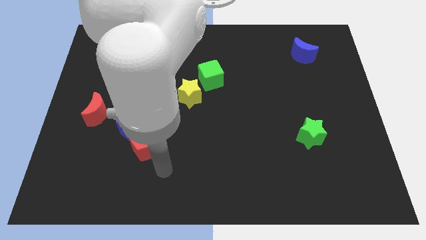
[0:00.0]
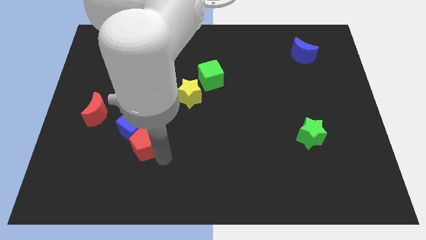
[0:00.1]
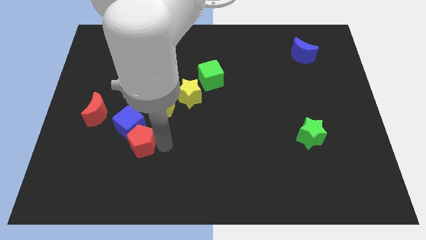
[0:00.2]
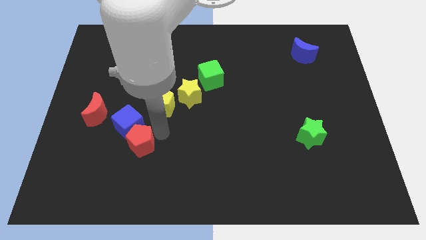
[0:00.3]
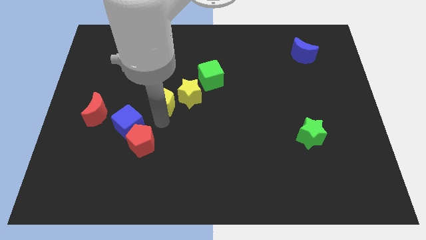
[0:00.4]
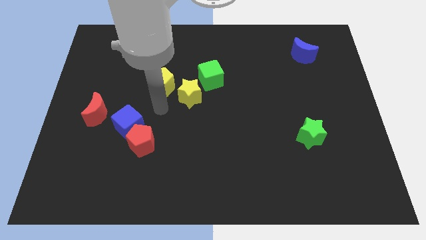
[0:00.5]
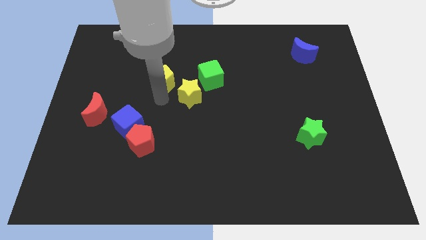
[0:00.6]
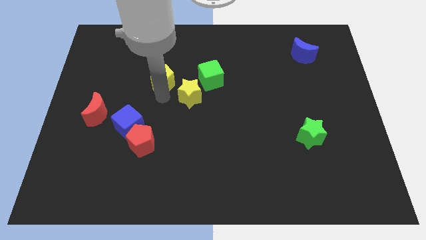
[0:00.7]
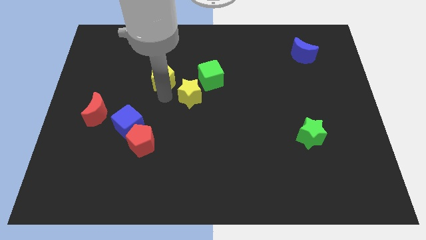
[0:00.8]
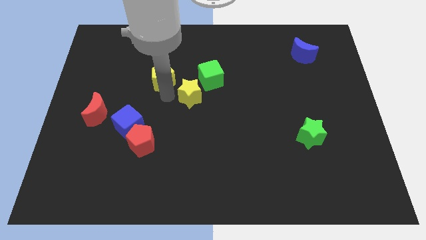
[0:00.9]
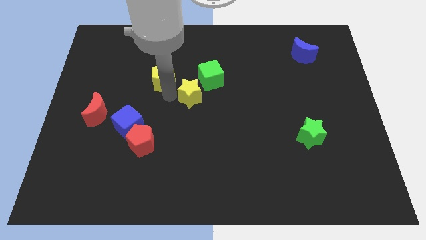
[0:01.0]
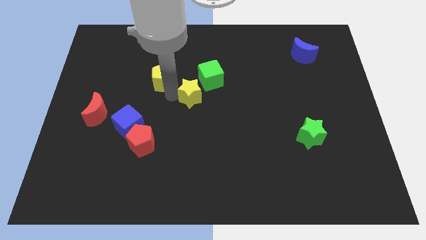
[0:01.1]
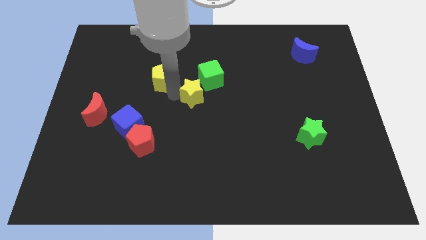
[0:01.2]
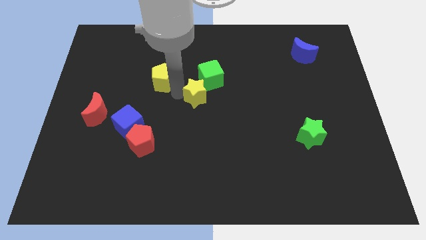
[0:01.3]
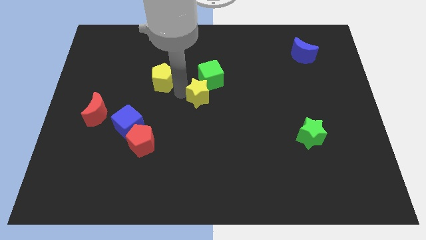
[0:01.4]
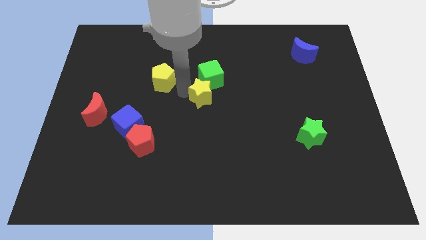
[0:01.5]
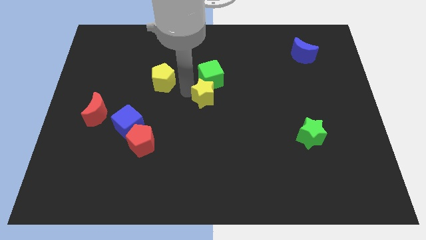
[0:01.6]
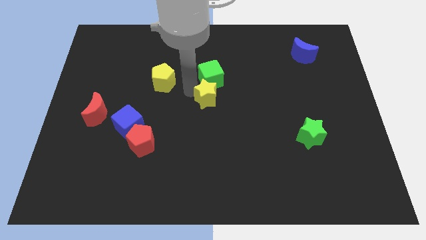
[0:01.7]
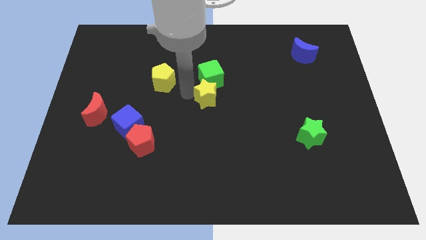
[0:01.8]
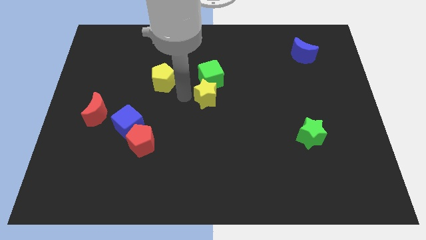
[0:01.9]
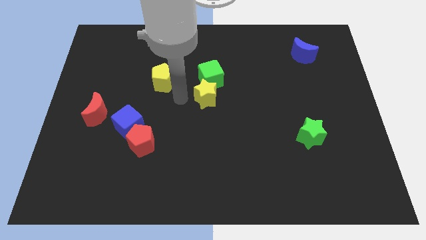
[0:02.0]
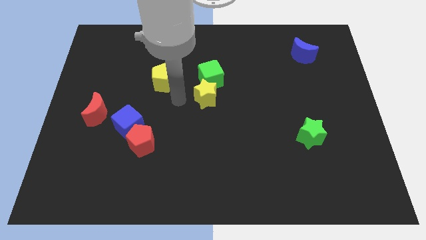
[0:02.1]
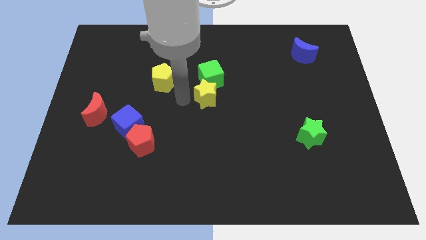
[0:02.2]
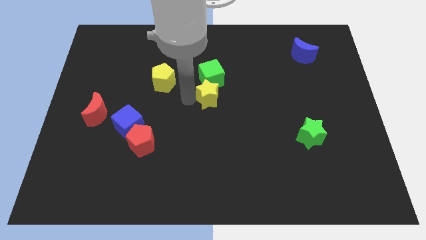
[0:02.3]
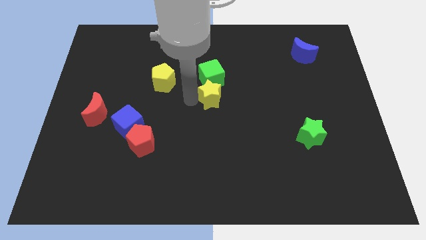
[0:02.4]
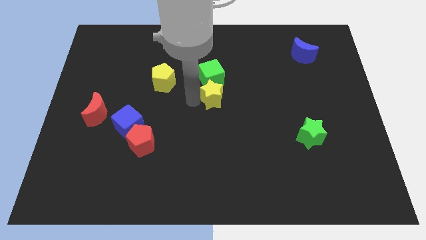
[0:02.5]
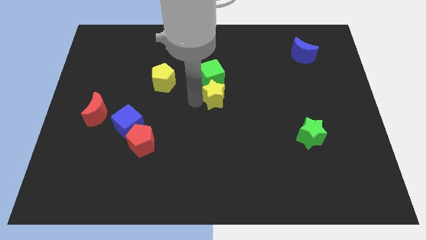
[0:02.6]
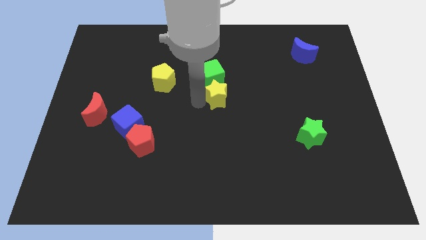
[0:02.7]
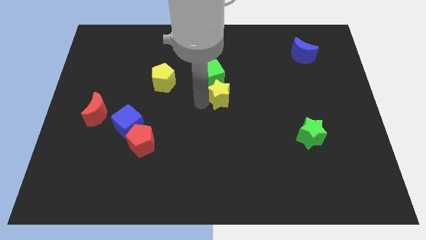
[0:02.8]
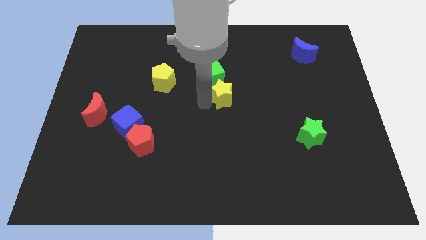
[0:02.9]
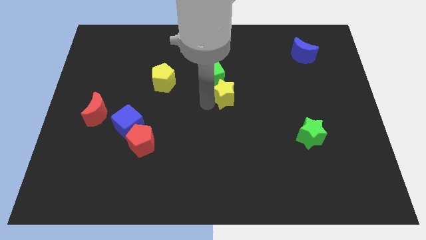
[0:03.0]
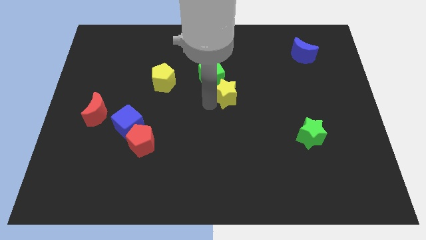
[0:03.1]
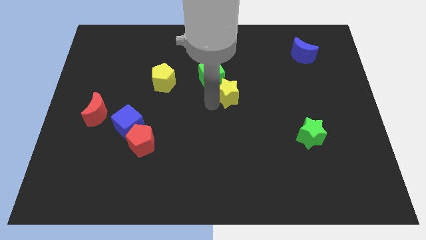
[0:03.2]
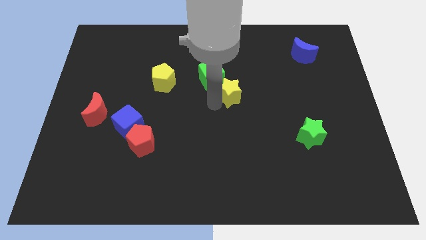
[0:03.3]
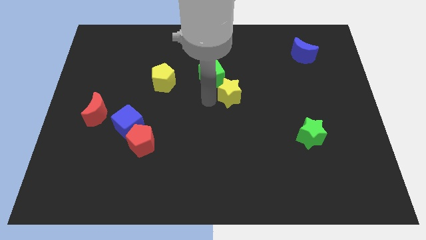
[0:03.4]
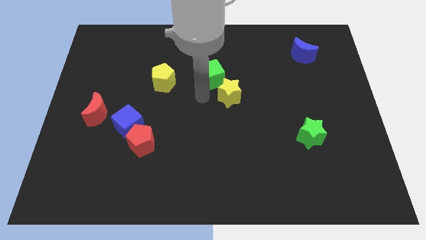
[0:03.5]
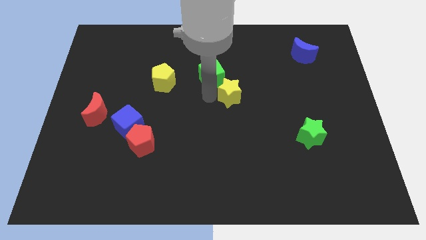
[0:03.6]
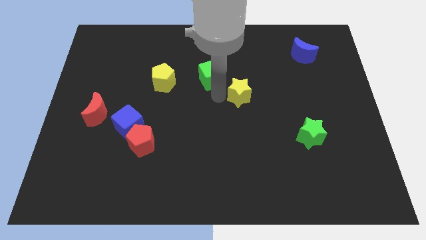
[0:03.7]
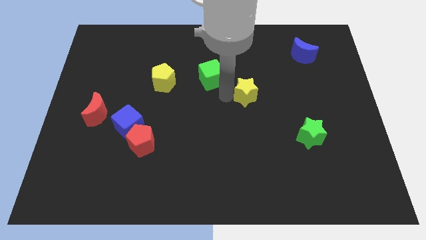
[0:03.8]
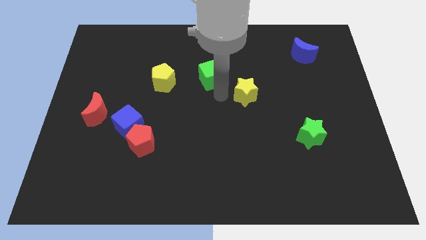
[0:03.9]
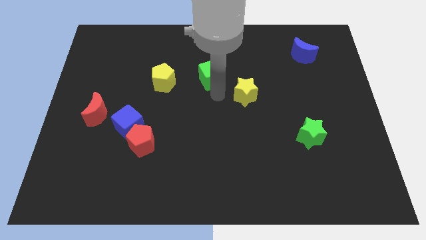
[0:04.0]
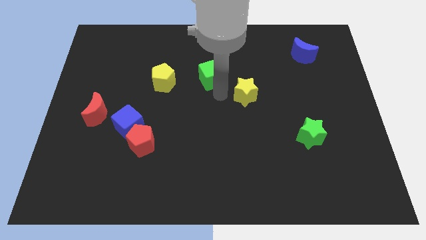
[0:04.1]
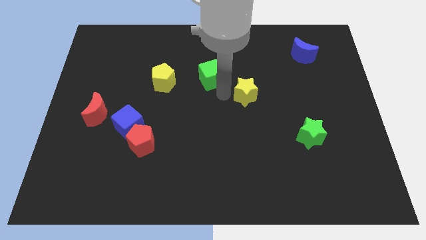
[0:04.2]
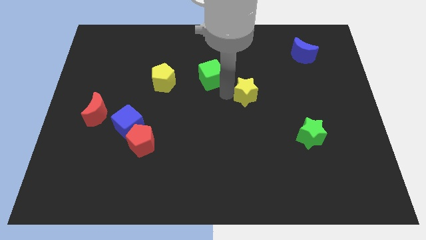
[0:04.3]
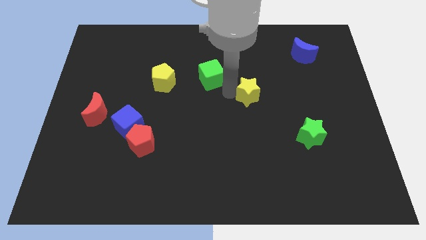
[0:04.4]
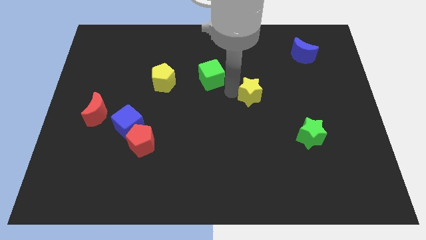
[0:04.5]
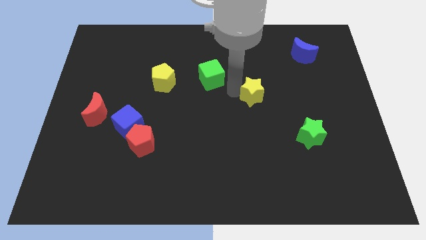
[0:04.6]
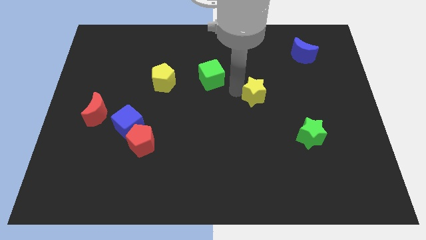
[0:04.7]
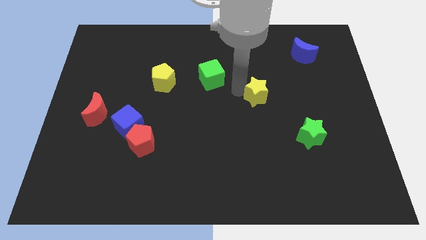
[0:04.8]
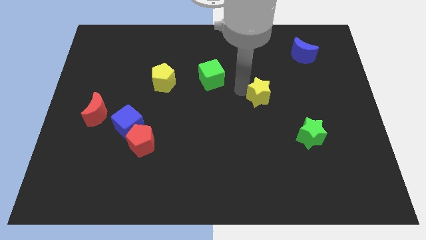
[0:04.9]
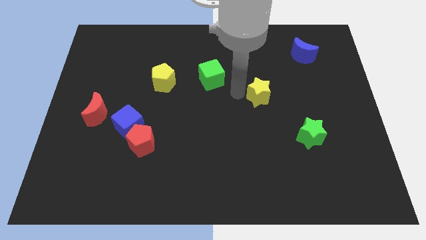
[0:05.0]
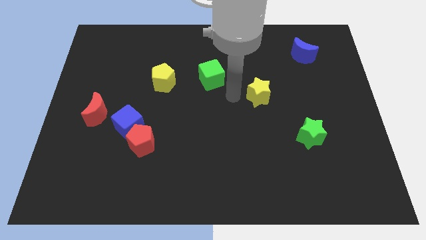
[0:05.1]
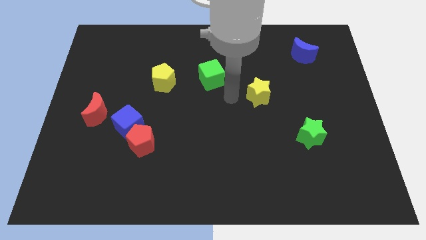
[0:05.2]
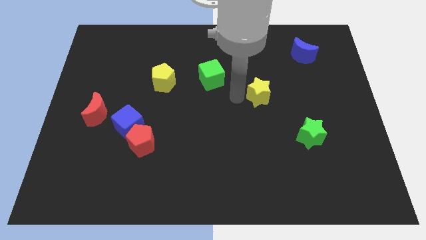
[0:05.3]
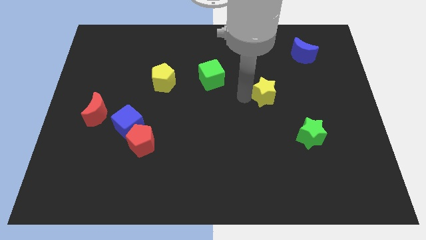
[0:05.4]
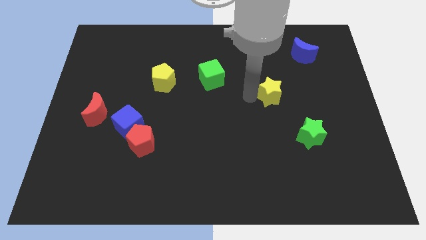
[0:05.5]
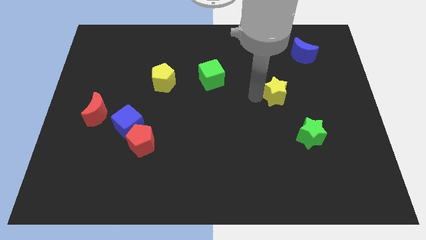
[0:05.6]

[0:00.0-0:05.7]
move the yellow star right

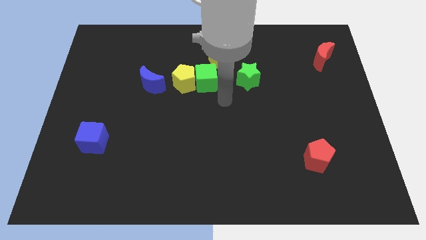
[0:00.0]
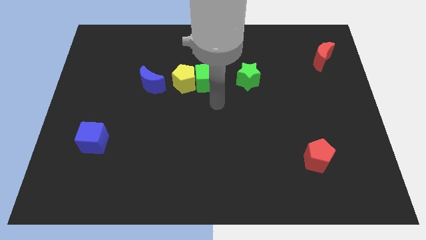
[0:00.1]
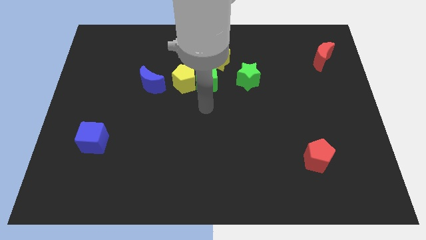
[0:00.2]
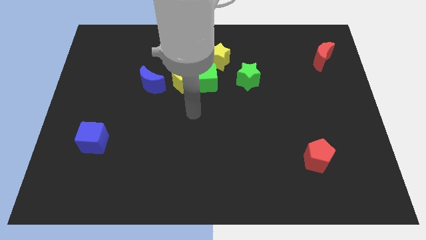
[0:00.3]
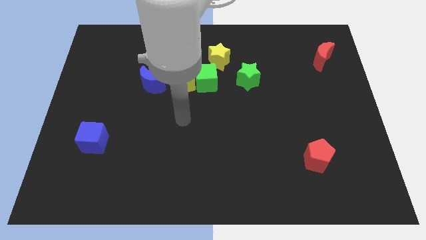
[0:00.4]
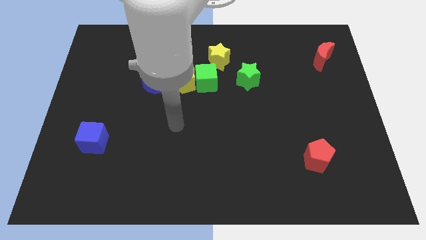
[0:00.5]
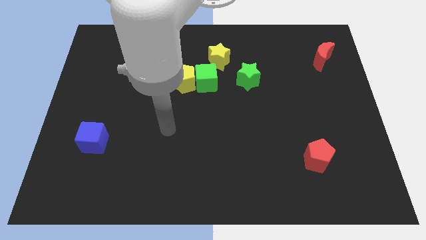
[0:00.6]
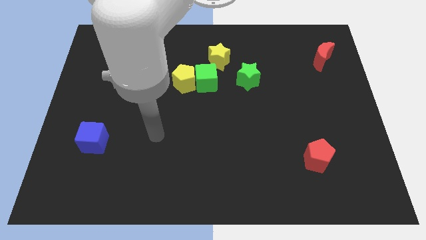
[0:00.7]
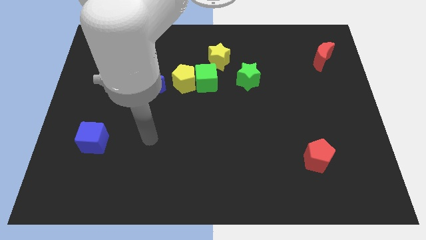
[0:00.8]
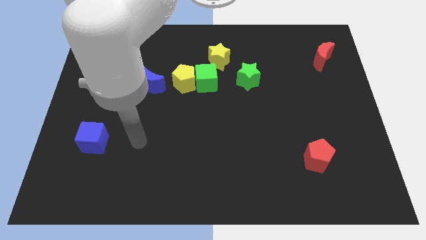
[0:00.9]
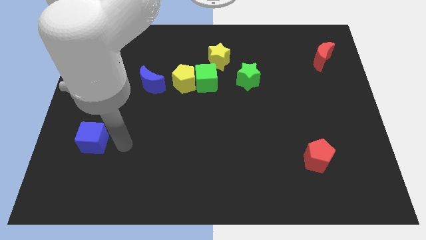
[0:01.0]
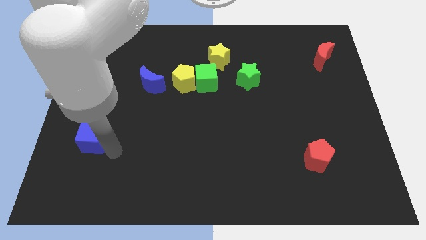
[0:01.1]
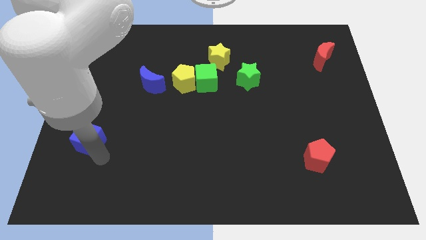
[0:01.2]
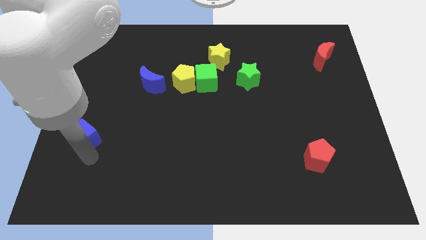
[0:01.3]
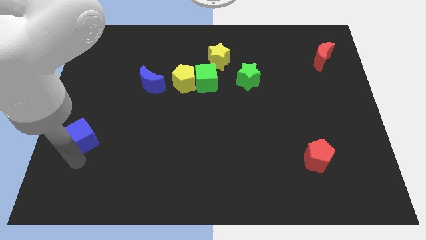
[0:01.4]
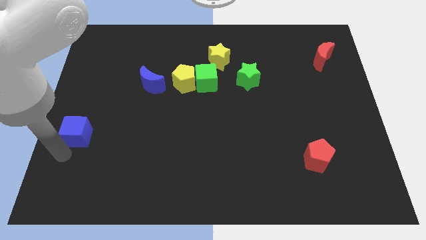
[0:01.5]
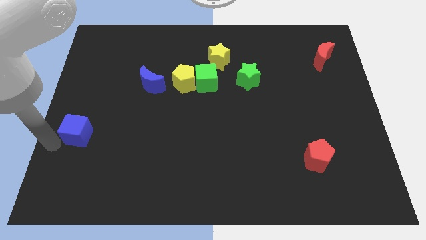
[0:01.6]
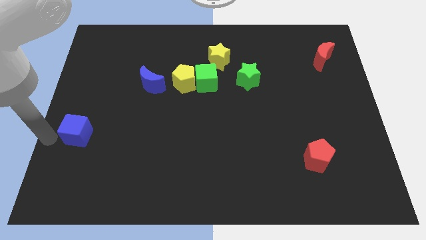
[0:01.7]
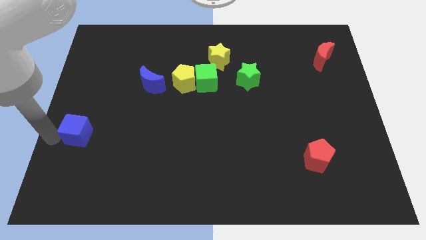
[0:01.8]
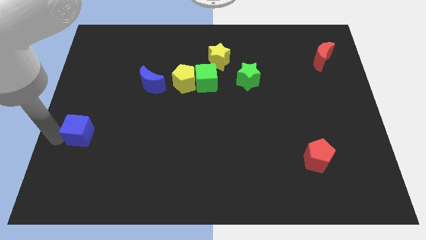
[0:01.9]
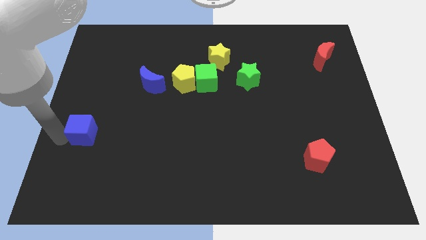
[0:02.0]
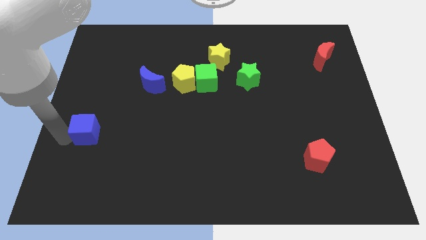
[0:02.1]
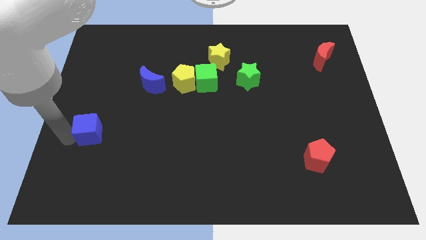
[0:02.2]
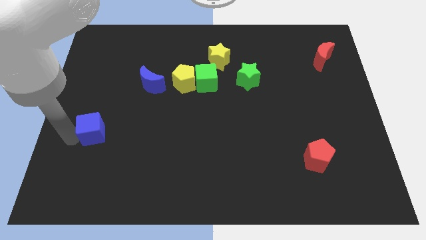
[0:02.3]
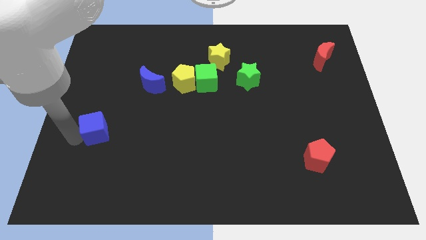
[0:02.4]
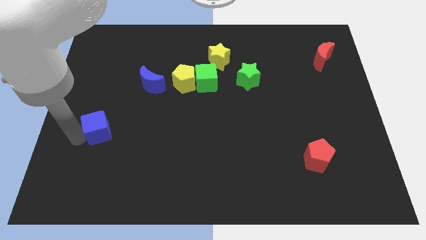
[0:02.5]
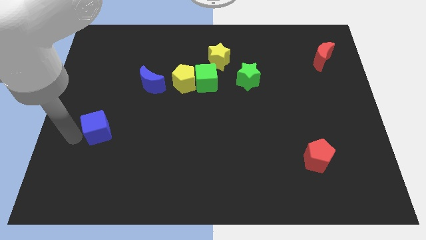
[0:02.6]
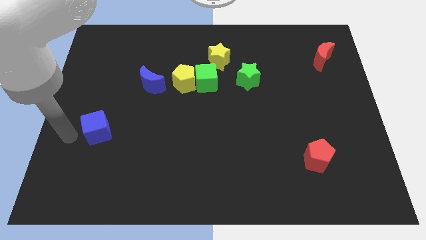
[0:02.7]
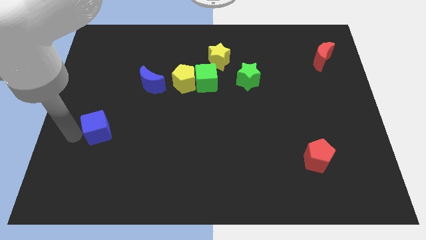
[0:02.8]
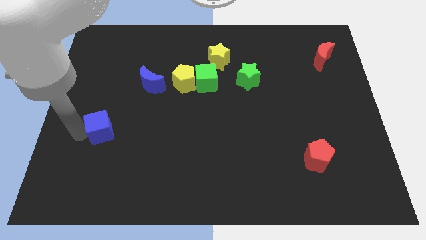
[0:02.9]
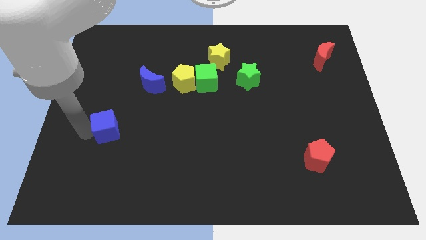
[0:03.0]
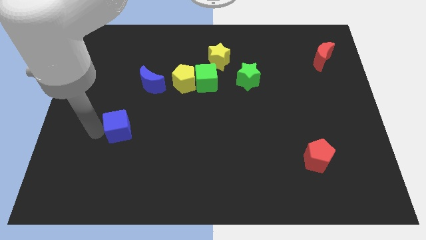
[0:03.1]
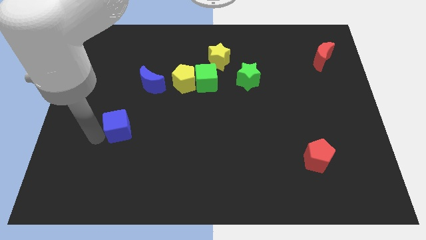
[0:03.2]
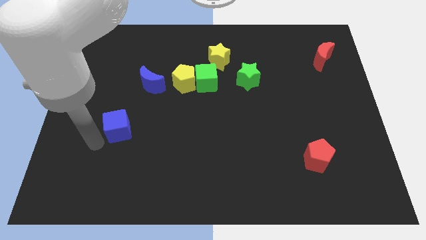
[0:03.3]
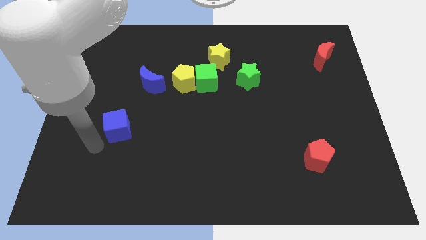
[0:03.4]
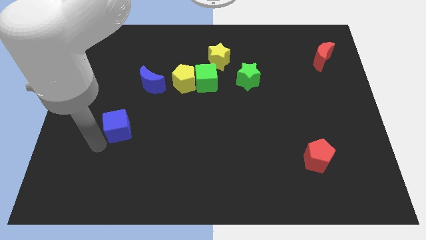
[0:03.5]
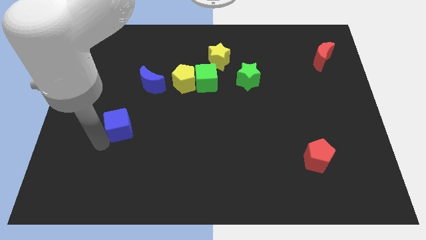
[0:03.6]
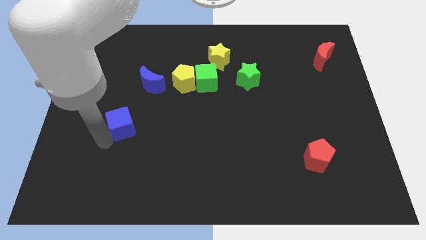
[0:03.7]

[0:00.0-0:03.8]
move the blue cube a little bit diagonally upwards and right
